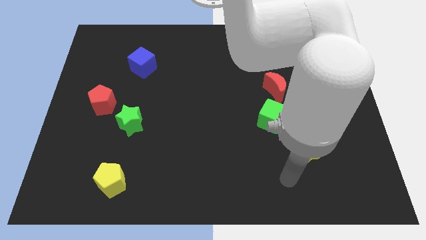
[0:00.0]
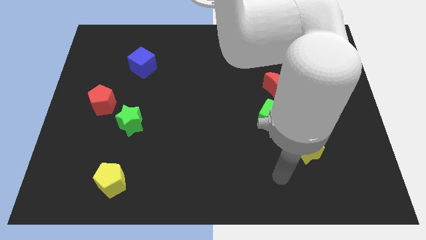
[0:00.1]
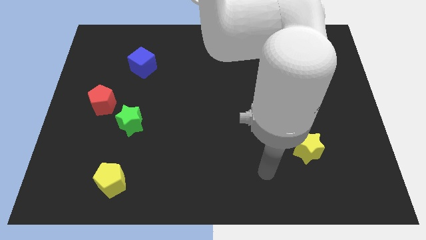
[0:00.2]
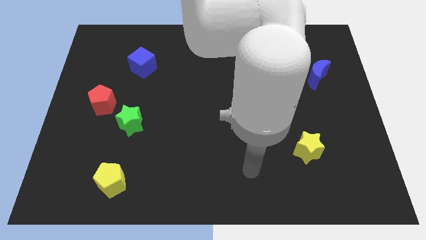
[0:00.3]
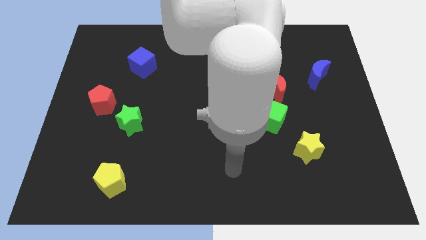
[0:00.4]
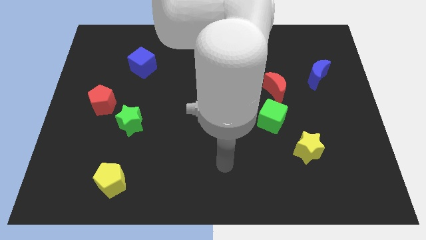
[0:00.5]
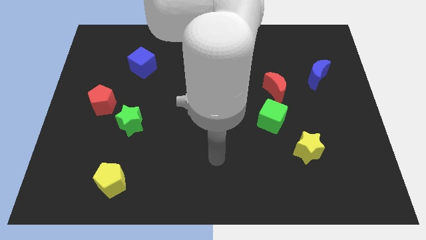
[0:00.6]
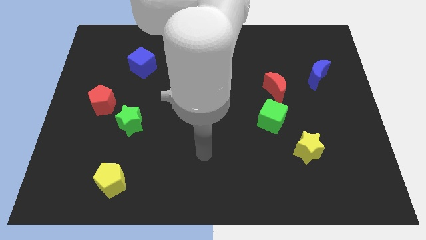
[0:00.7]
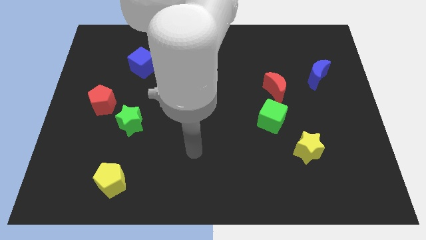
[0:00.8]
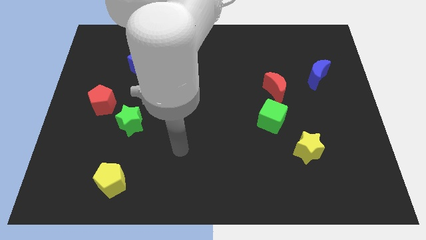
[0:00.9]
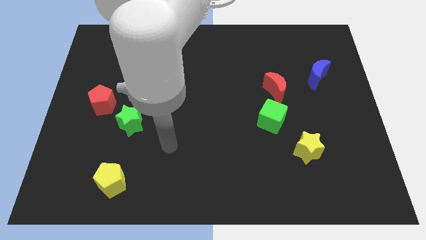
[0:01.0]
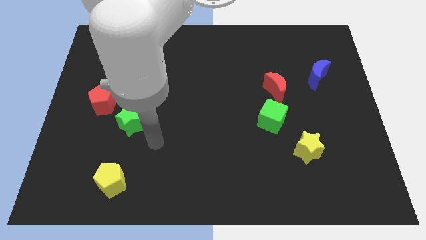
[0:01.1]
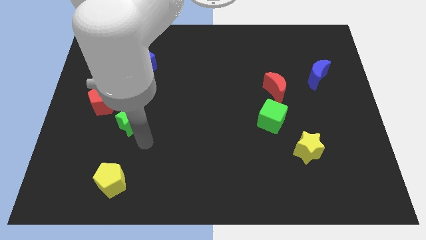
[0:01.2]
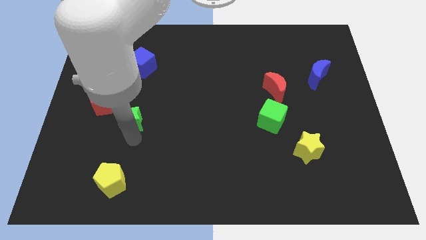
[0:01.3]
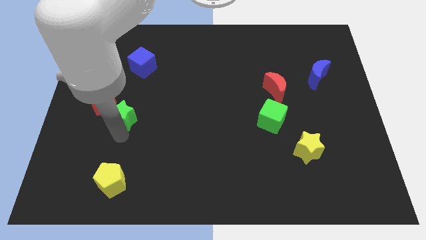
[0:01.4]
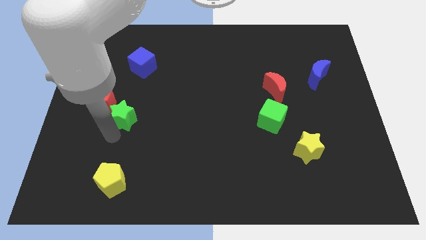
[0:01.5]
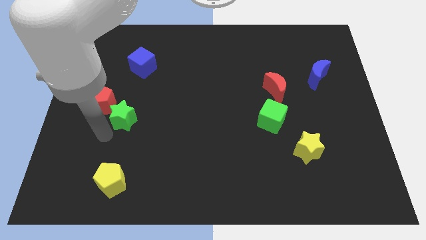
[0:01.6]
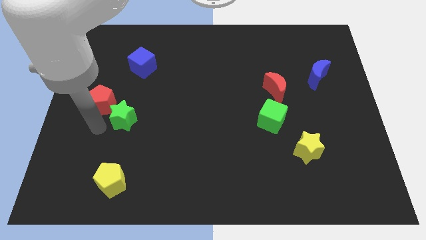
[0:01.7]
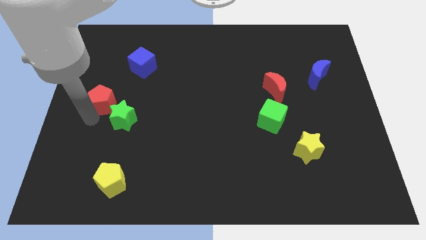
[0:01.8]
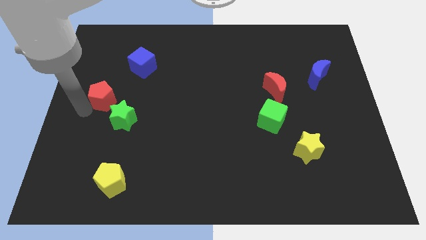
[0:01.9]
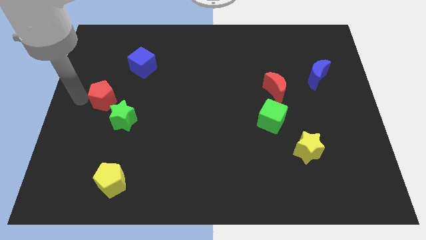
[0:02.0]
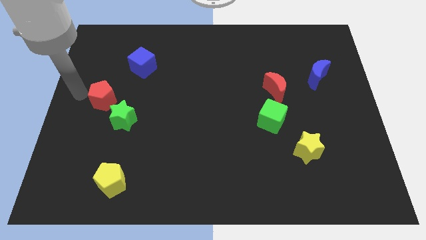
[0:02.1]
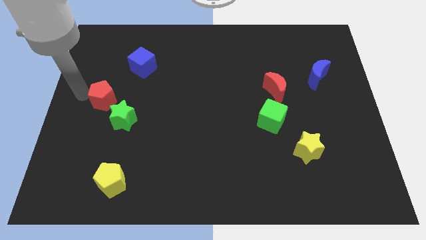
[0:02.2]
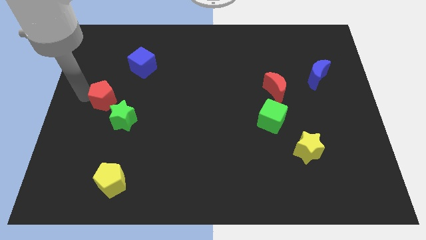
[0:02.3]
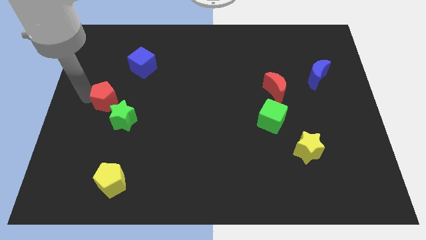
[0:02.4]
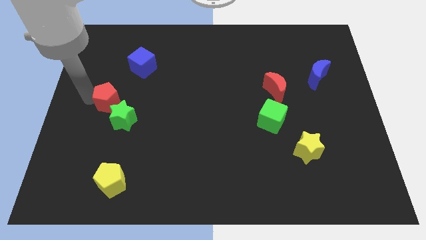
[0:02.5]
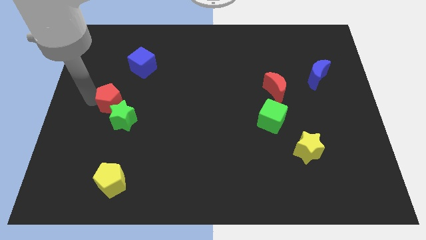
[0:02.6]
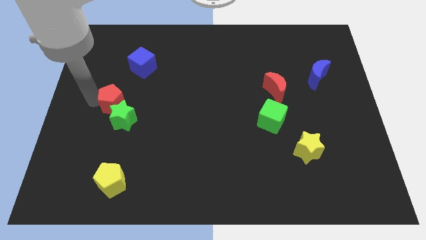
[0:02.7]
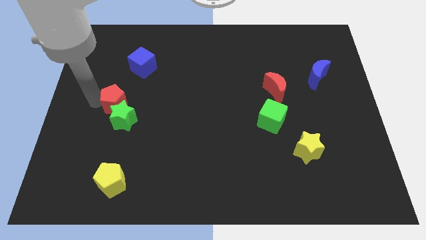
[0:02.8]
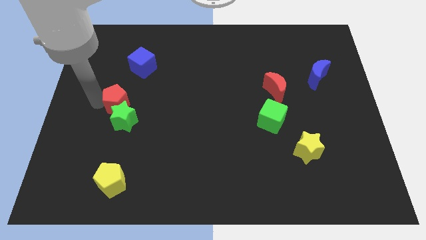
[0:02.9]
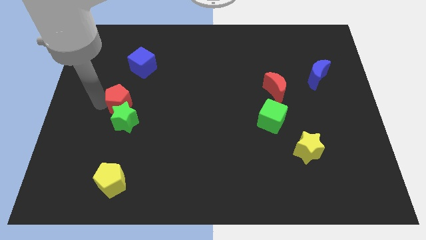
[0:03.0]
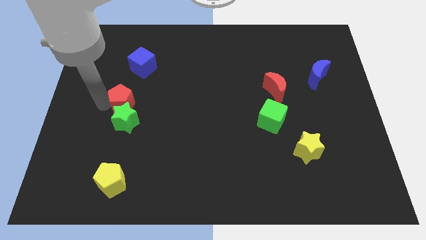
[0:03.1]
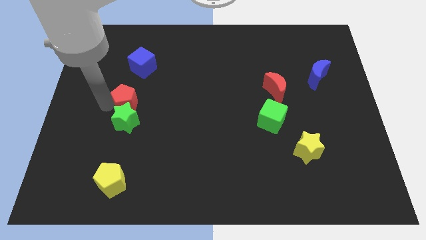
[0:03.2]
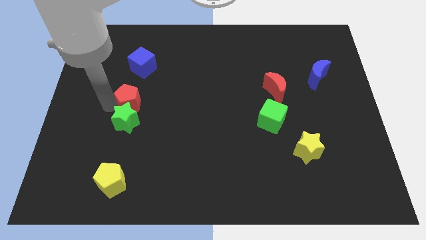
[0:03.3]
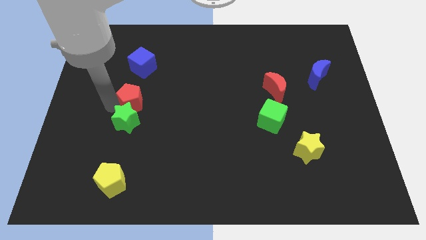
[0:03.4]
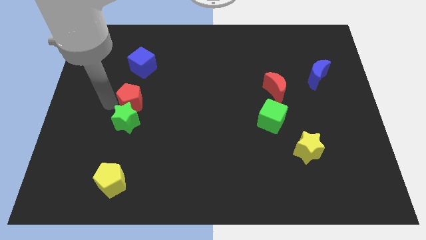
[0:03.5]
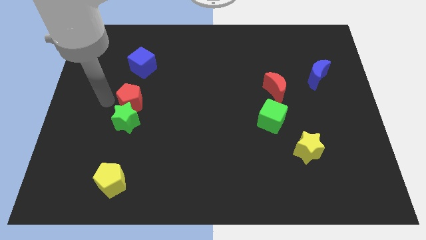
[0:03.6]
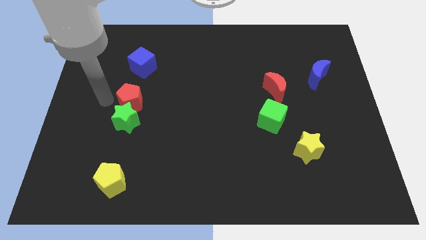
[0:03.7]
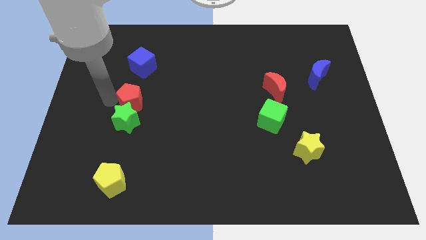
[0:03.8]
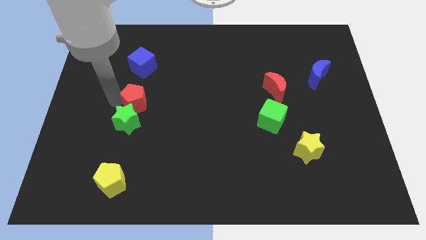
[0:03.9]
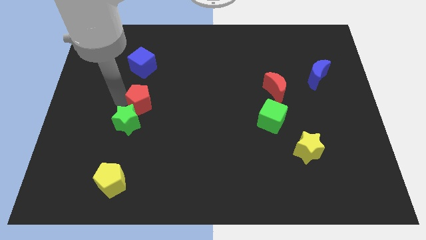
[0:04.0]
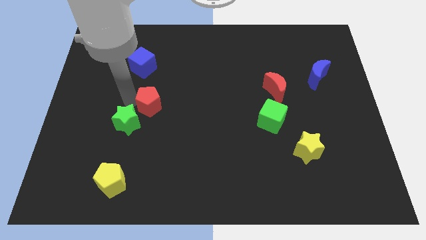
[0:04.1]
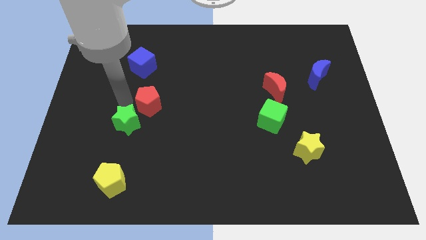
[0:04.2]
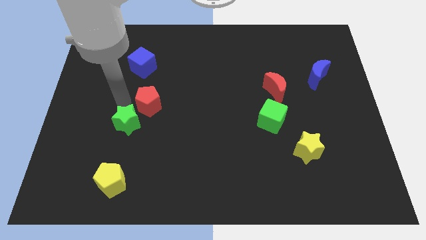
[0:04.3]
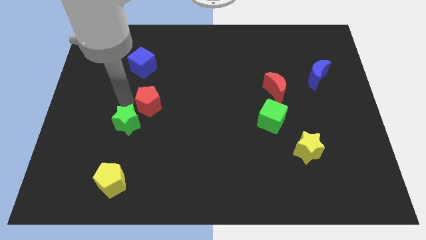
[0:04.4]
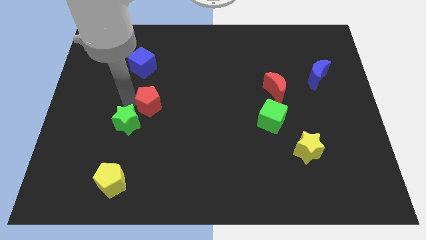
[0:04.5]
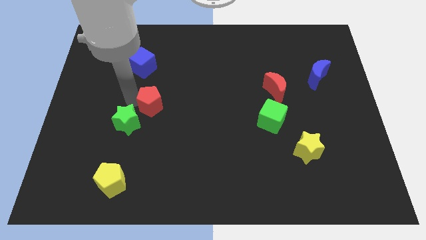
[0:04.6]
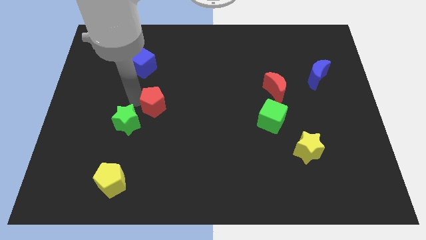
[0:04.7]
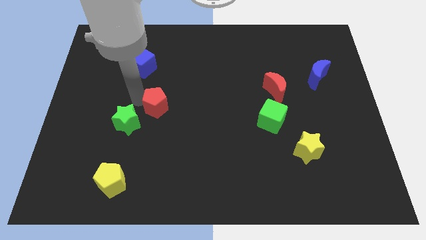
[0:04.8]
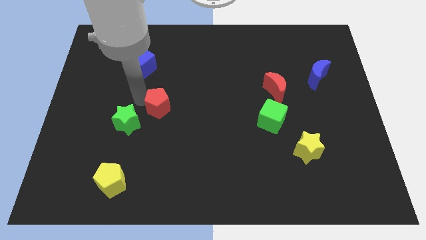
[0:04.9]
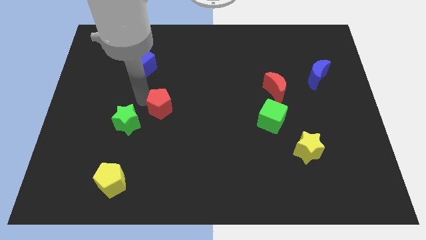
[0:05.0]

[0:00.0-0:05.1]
push the red pentagon to the center

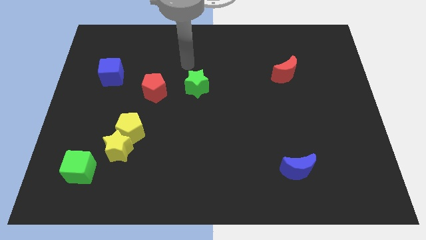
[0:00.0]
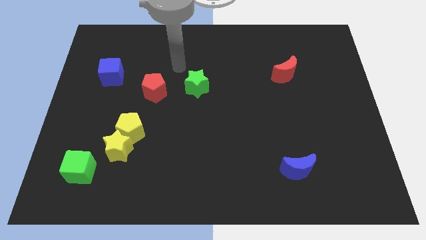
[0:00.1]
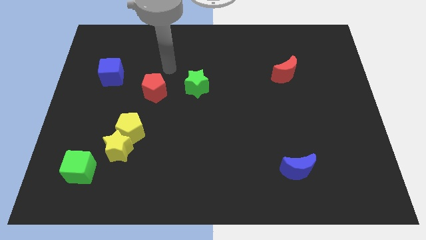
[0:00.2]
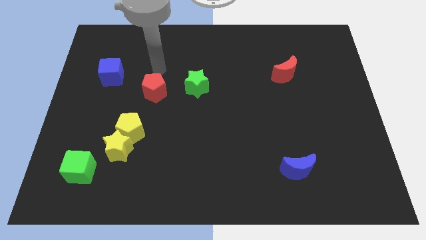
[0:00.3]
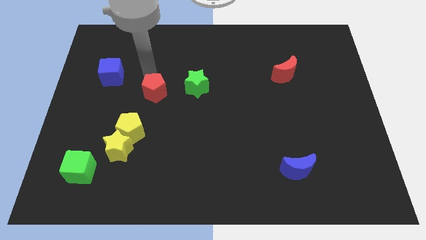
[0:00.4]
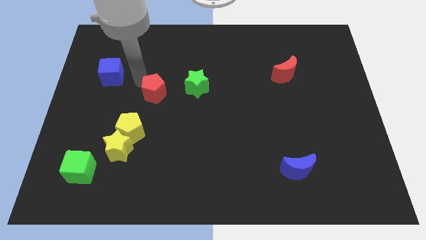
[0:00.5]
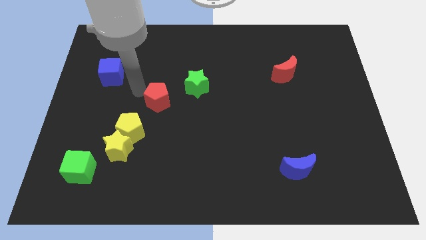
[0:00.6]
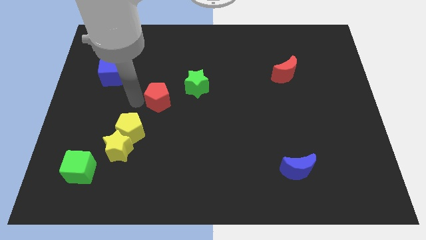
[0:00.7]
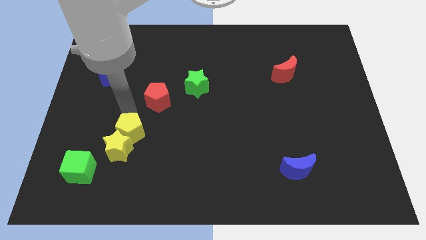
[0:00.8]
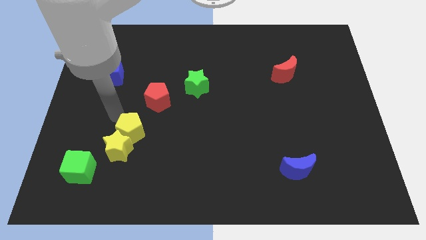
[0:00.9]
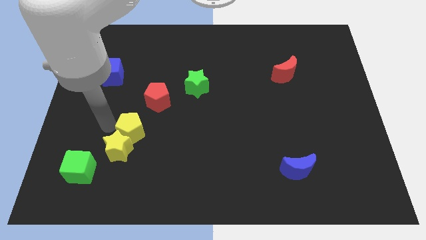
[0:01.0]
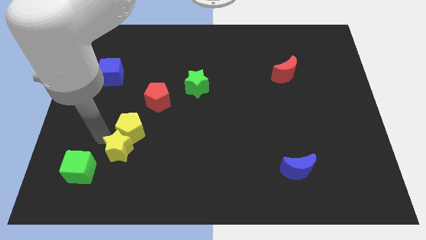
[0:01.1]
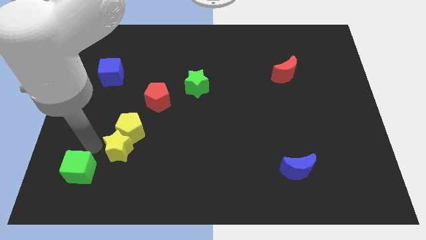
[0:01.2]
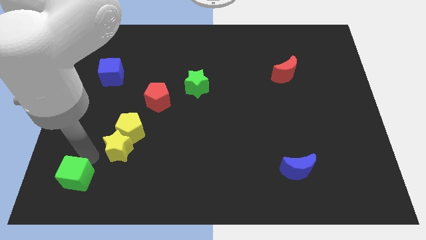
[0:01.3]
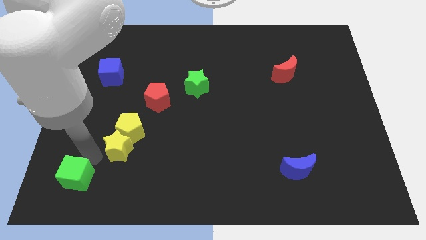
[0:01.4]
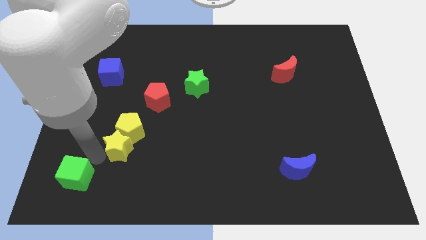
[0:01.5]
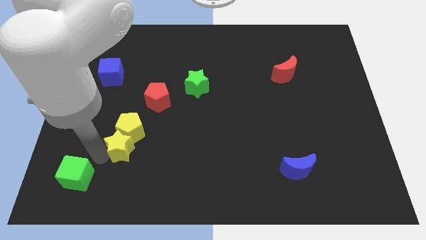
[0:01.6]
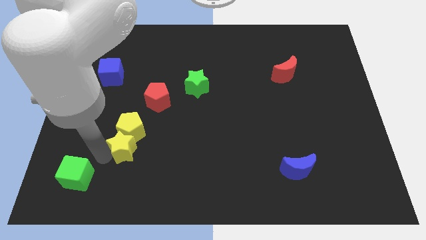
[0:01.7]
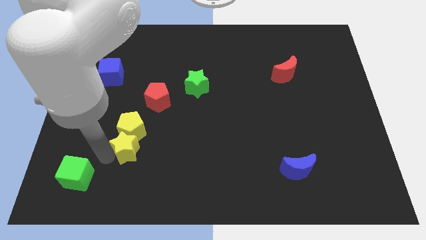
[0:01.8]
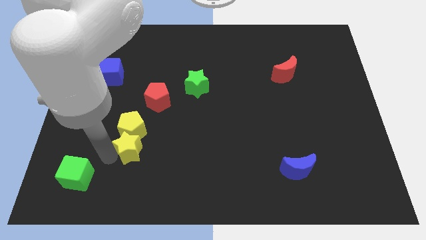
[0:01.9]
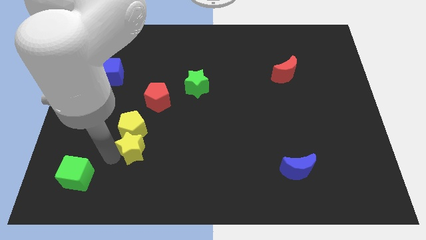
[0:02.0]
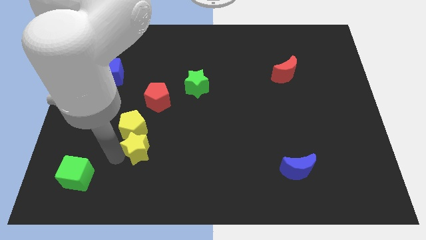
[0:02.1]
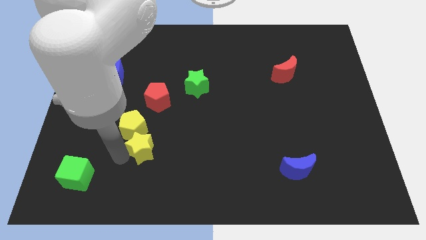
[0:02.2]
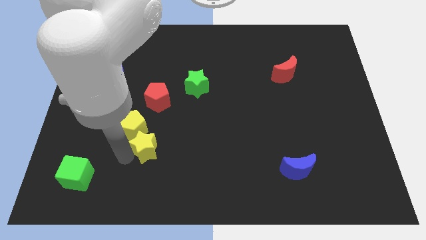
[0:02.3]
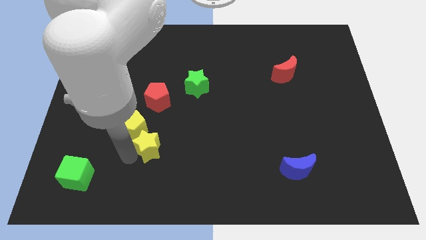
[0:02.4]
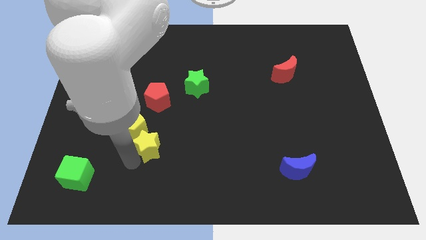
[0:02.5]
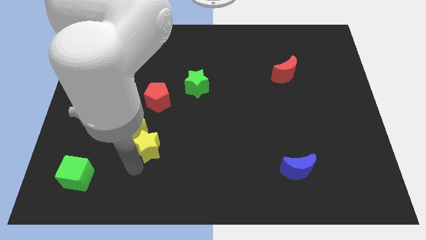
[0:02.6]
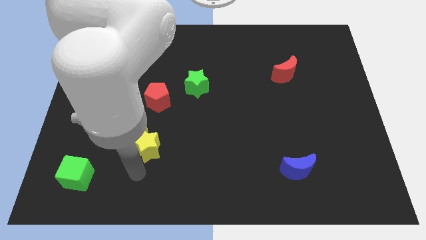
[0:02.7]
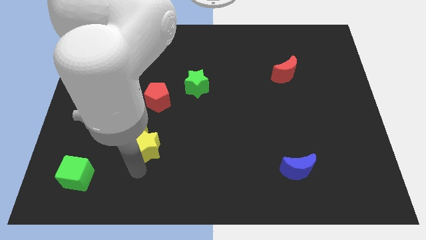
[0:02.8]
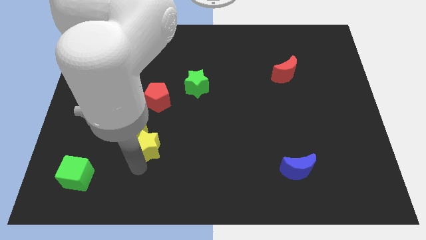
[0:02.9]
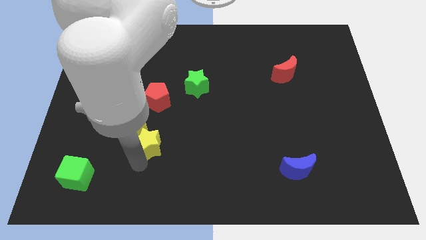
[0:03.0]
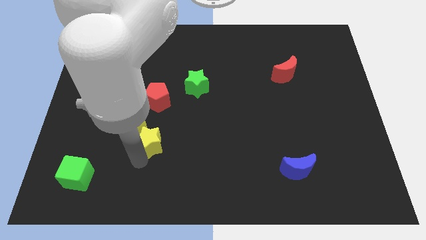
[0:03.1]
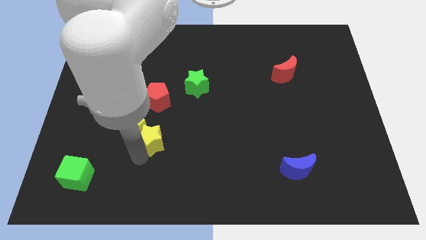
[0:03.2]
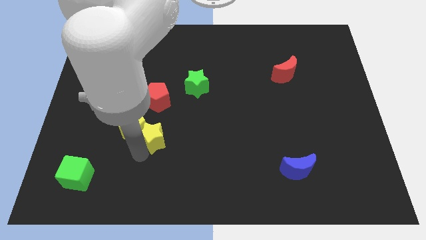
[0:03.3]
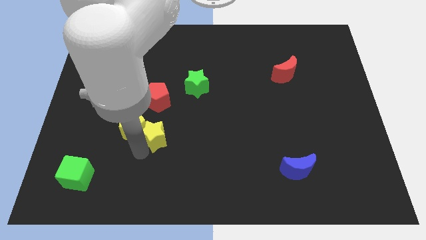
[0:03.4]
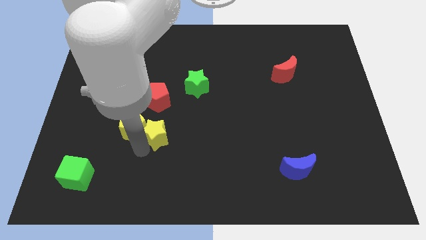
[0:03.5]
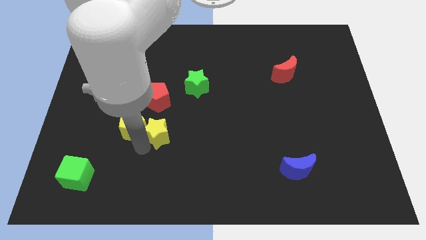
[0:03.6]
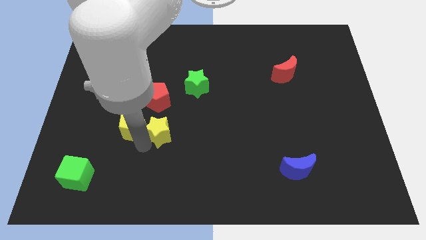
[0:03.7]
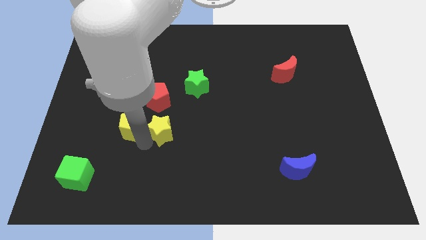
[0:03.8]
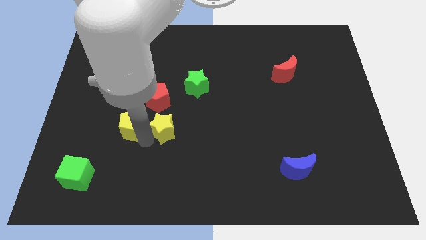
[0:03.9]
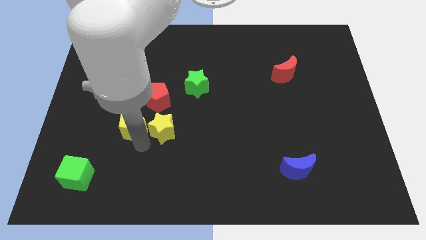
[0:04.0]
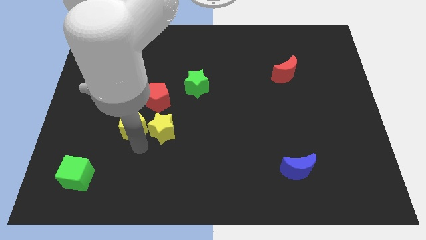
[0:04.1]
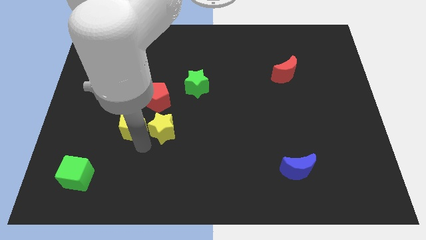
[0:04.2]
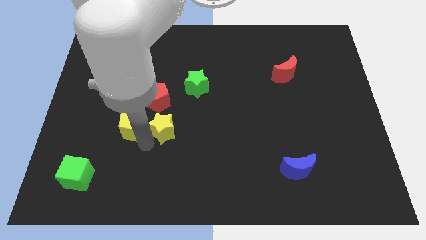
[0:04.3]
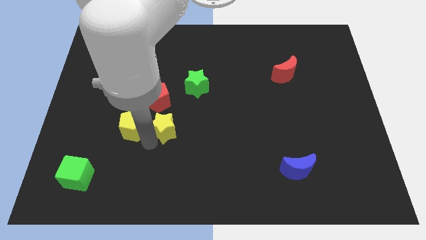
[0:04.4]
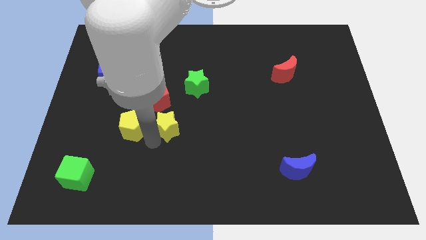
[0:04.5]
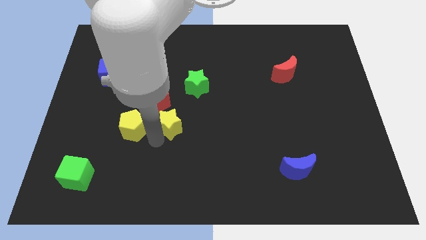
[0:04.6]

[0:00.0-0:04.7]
push the yellow star to the middle
